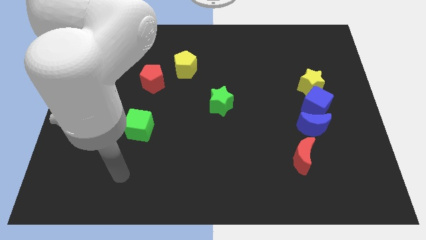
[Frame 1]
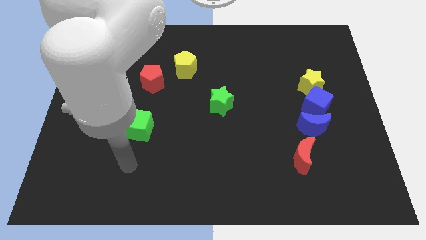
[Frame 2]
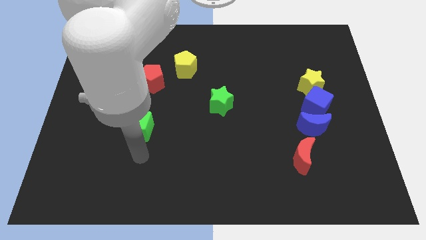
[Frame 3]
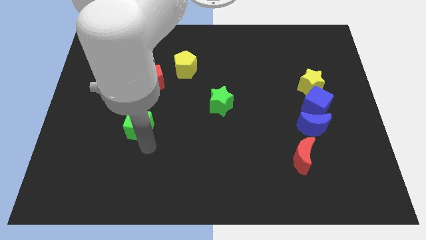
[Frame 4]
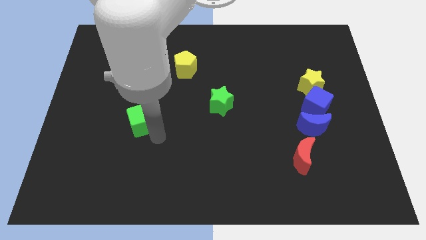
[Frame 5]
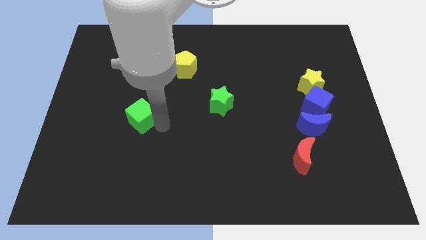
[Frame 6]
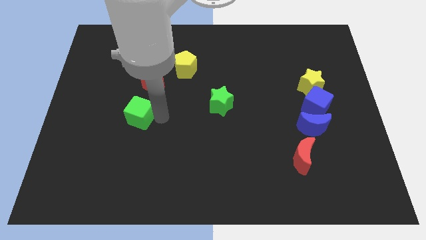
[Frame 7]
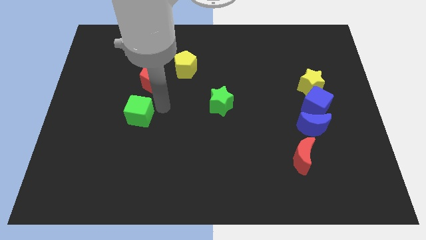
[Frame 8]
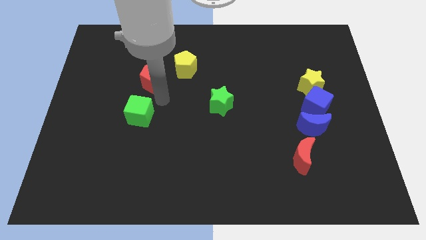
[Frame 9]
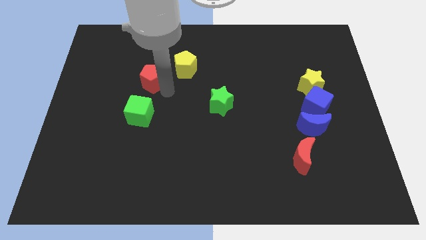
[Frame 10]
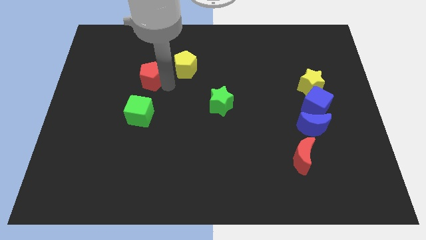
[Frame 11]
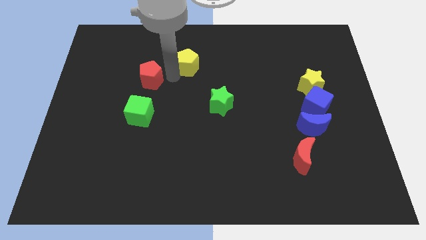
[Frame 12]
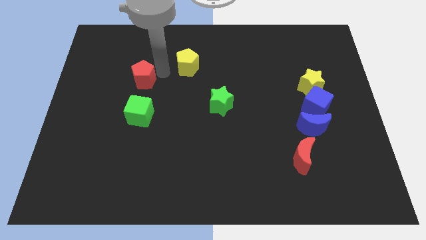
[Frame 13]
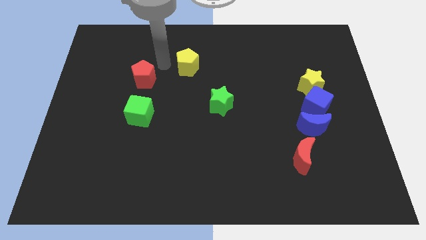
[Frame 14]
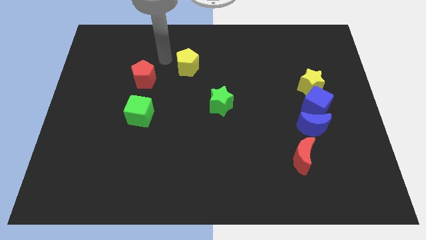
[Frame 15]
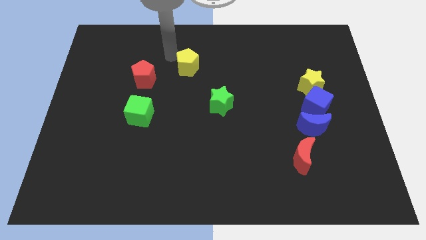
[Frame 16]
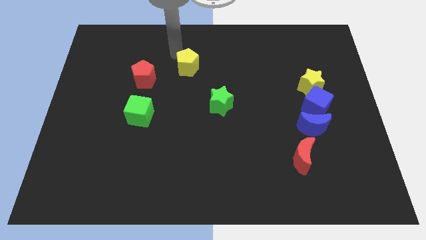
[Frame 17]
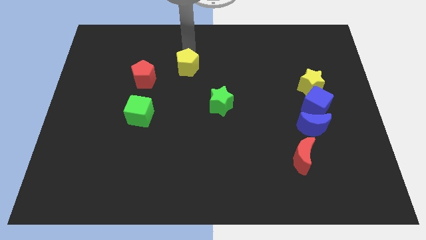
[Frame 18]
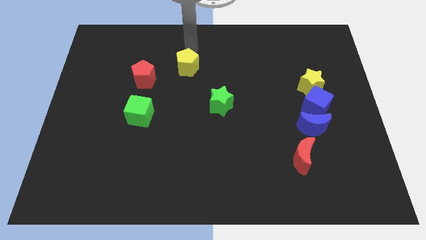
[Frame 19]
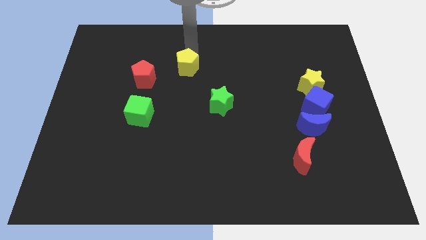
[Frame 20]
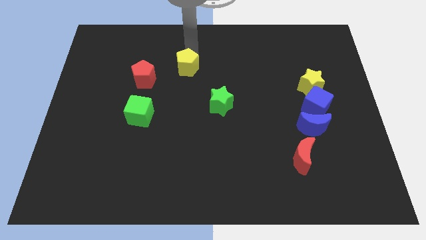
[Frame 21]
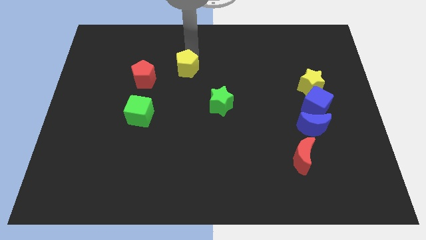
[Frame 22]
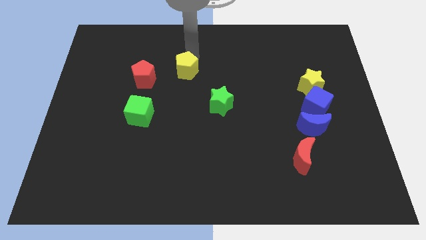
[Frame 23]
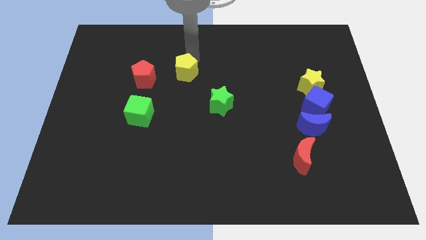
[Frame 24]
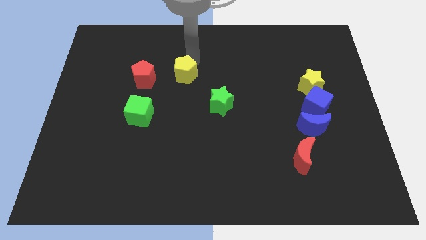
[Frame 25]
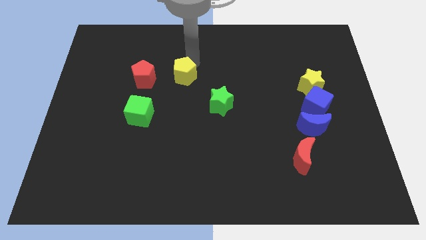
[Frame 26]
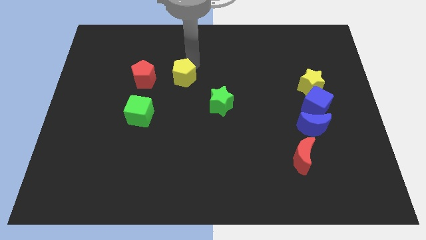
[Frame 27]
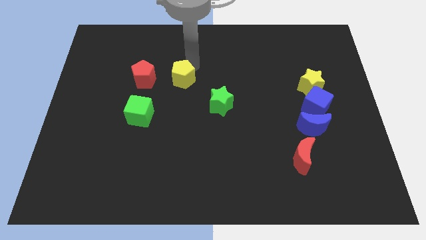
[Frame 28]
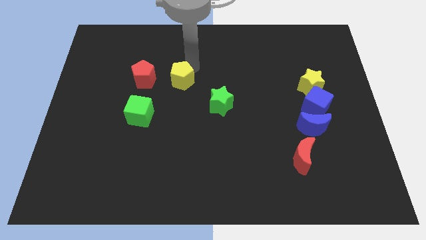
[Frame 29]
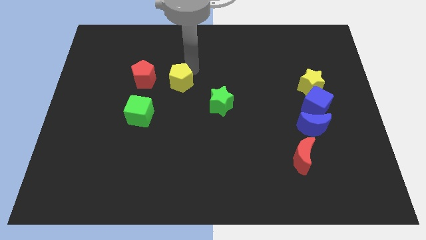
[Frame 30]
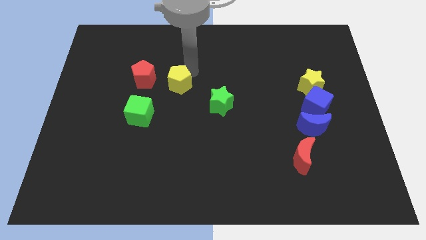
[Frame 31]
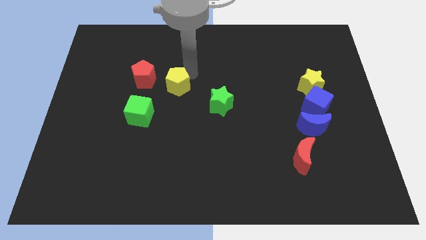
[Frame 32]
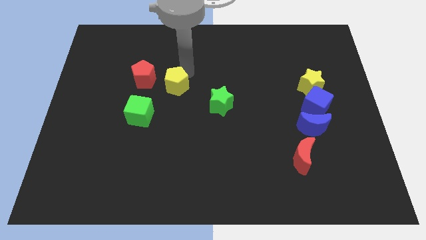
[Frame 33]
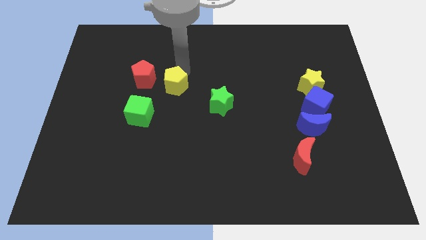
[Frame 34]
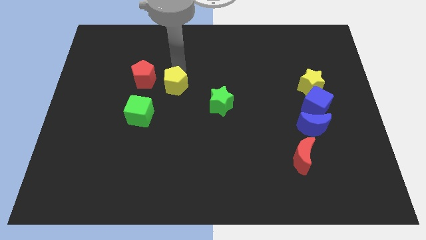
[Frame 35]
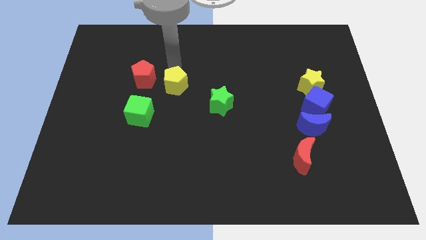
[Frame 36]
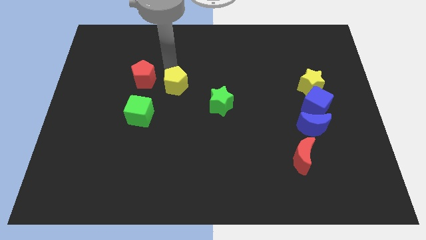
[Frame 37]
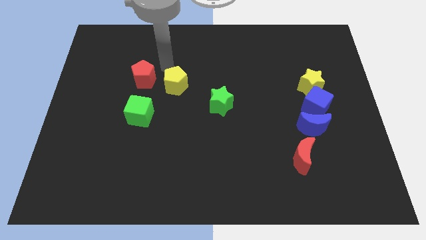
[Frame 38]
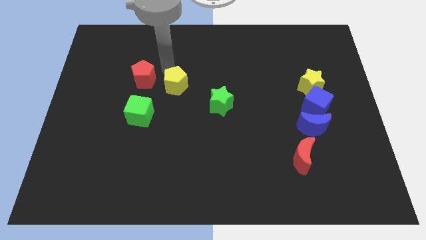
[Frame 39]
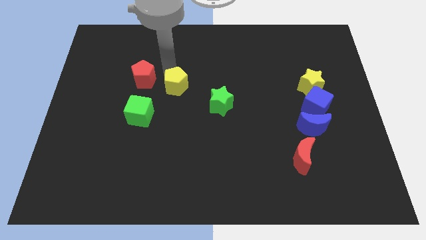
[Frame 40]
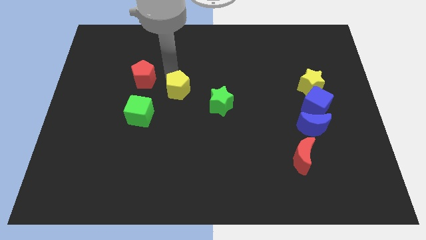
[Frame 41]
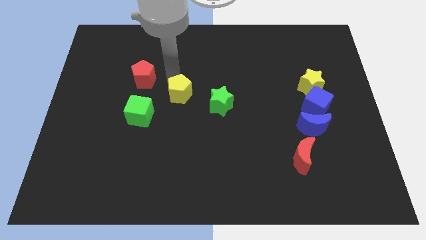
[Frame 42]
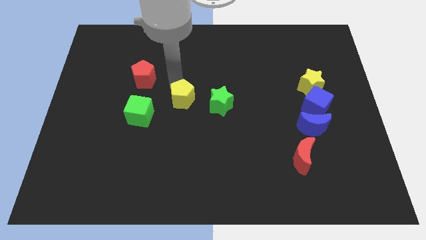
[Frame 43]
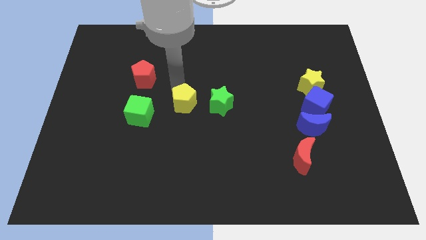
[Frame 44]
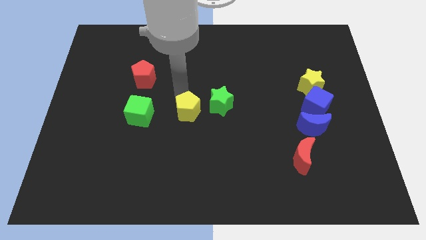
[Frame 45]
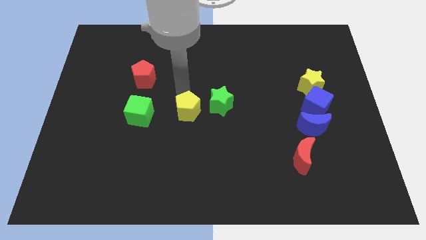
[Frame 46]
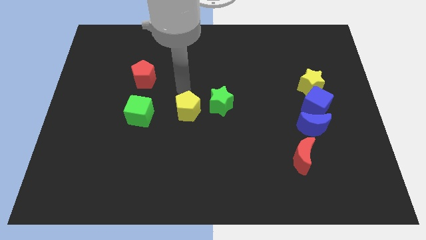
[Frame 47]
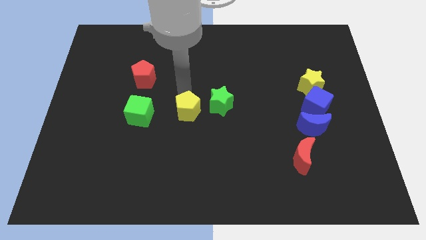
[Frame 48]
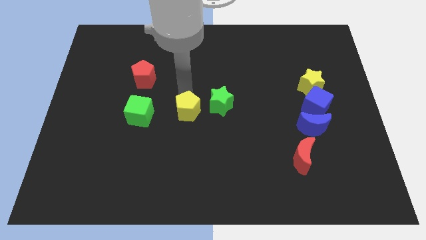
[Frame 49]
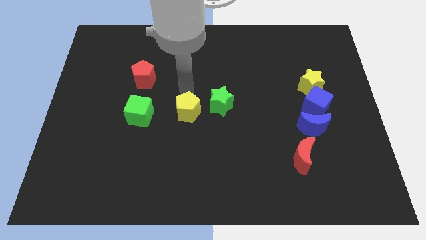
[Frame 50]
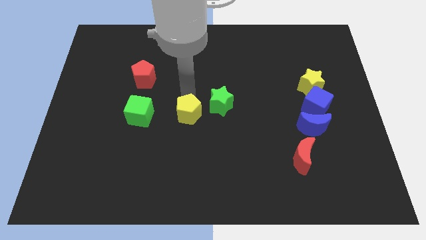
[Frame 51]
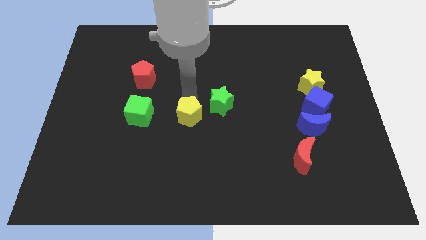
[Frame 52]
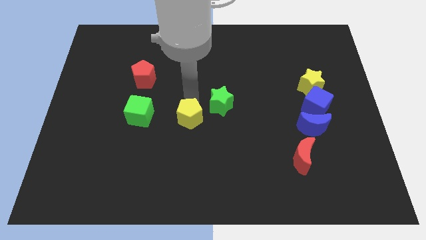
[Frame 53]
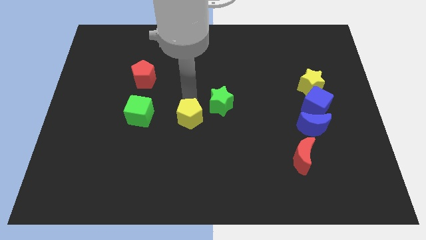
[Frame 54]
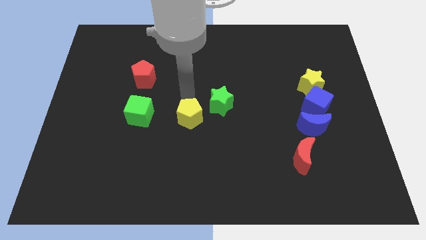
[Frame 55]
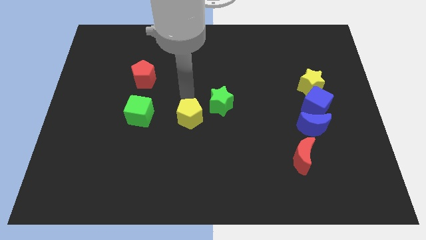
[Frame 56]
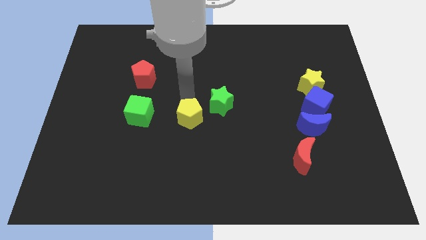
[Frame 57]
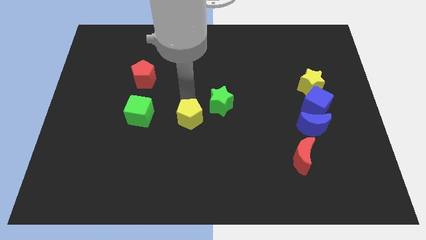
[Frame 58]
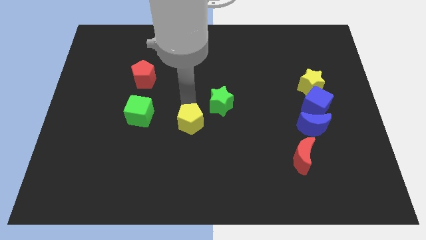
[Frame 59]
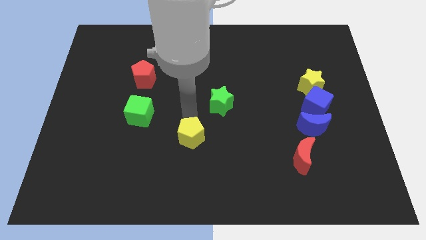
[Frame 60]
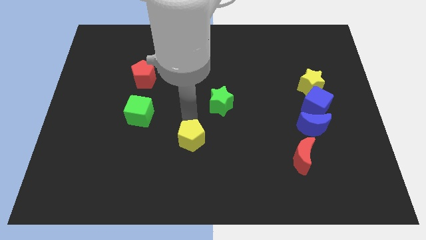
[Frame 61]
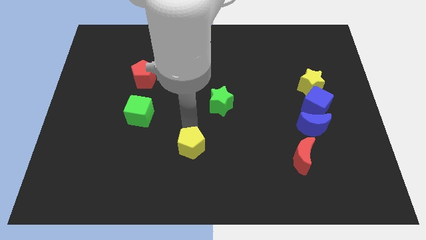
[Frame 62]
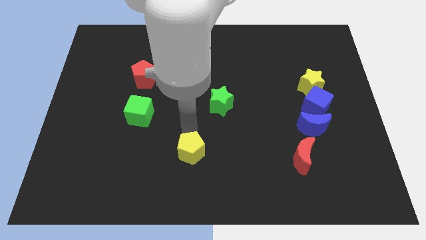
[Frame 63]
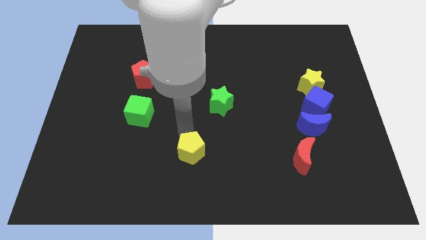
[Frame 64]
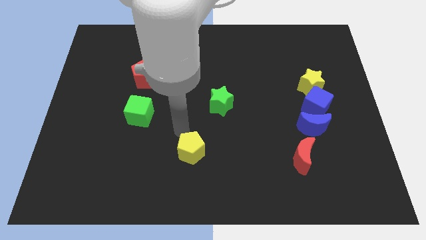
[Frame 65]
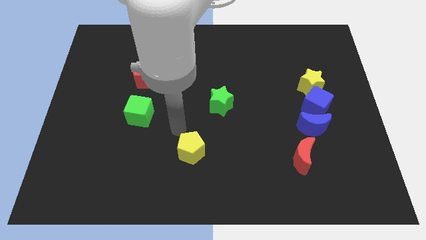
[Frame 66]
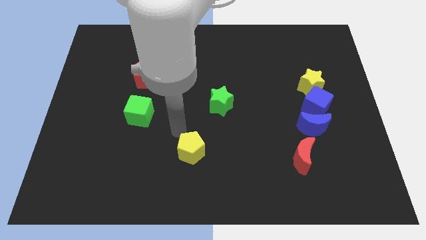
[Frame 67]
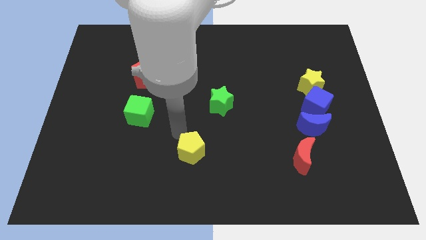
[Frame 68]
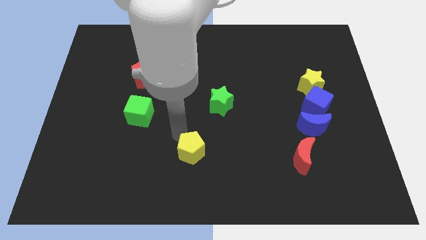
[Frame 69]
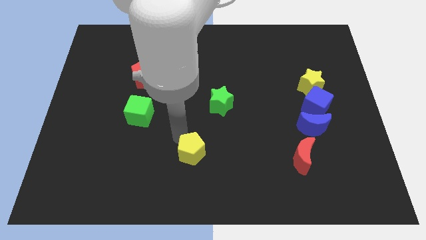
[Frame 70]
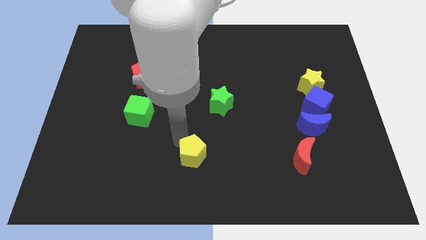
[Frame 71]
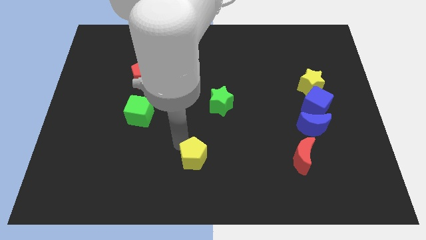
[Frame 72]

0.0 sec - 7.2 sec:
put the yellow pentagon to the bottom side
